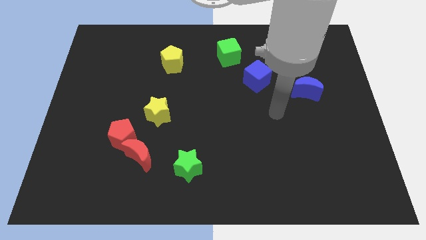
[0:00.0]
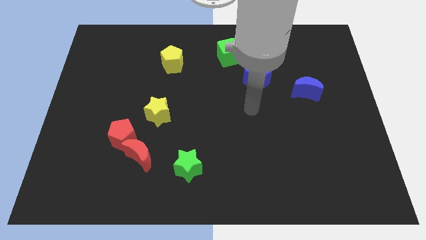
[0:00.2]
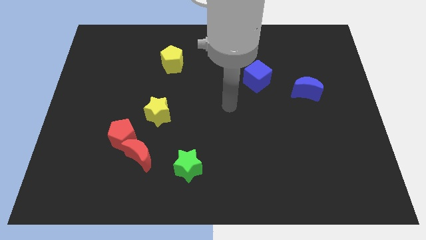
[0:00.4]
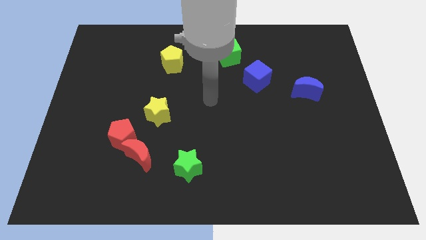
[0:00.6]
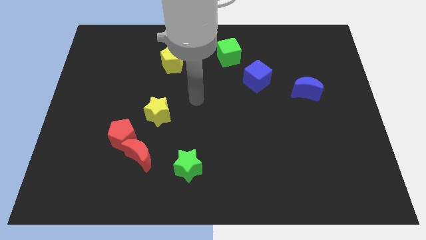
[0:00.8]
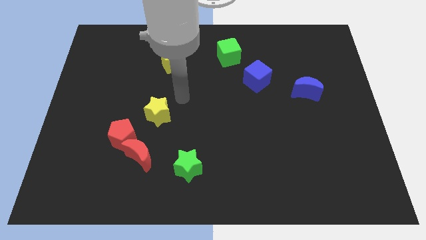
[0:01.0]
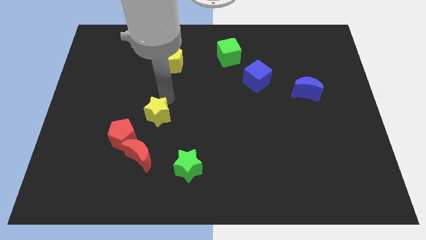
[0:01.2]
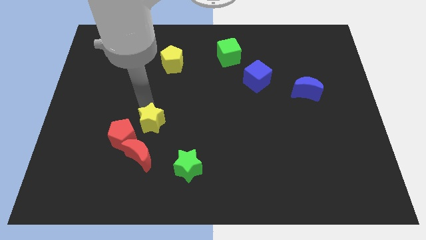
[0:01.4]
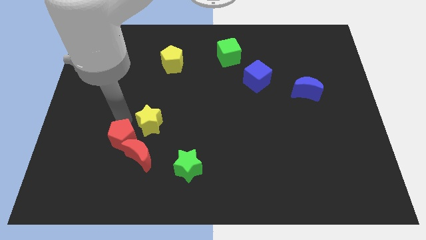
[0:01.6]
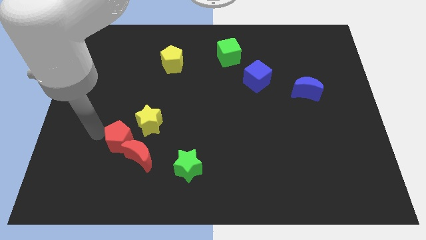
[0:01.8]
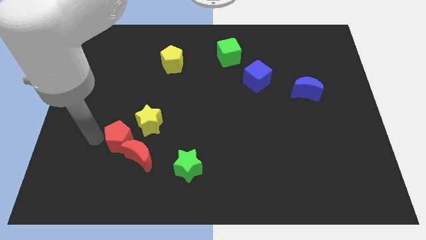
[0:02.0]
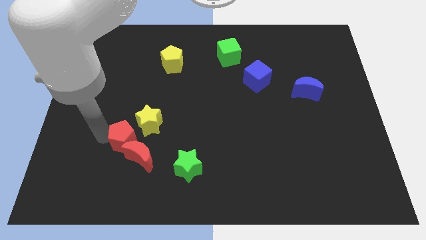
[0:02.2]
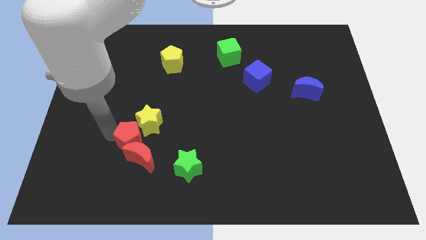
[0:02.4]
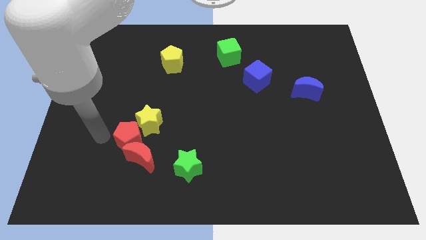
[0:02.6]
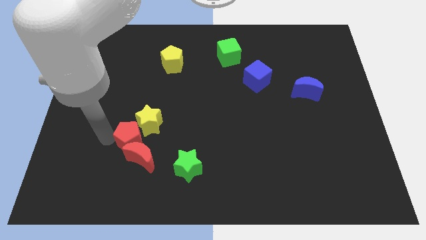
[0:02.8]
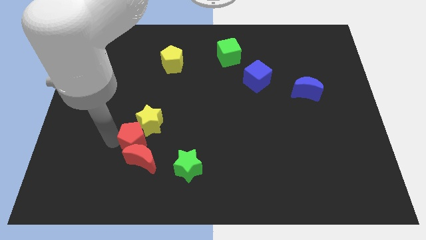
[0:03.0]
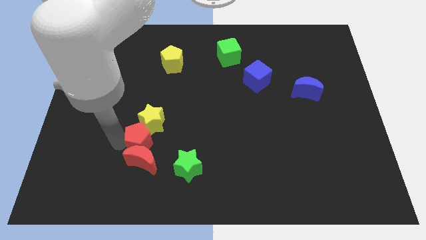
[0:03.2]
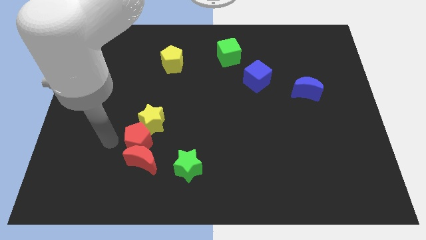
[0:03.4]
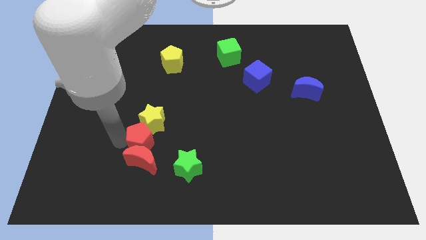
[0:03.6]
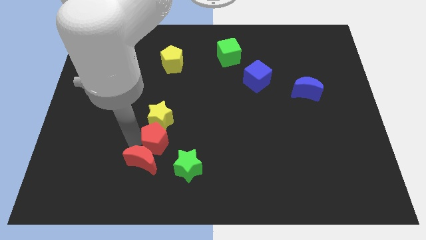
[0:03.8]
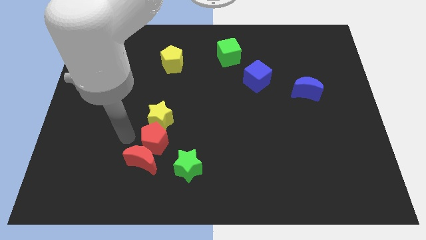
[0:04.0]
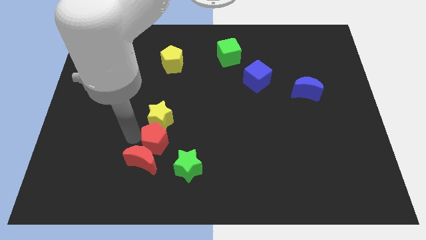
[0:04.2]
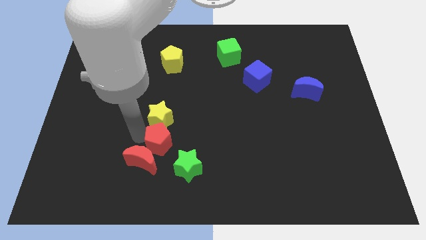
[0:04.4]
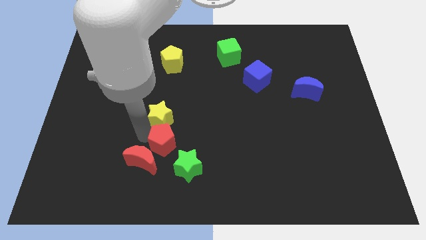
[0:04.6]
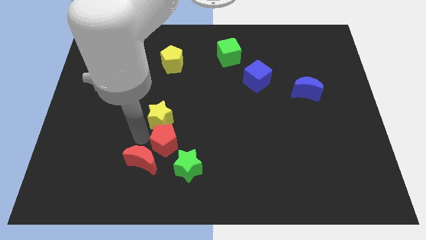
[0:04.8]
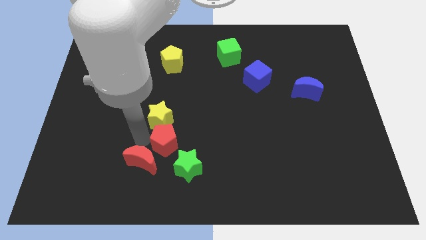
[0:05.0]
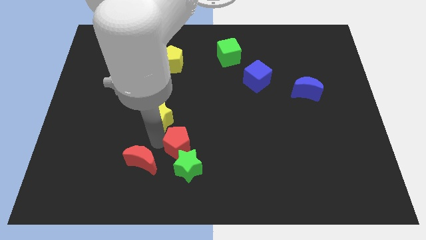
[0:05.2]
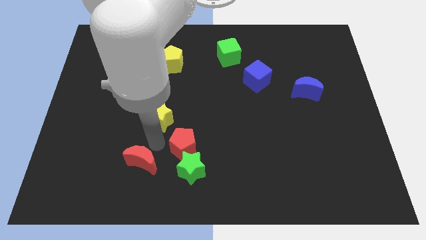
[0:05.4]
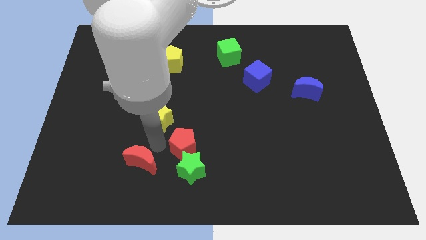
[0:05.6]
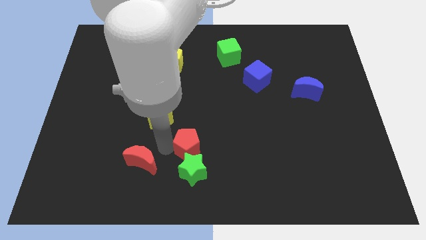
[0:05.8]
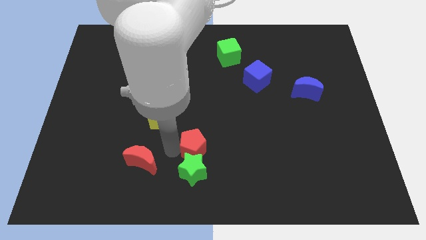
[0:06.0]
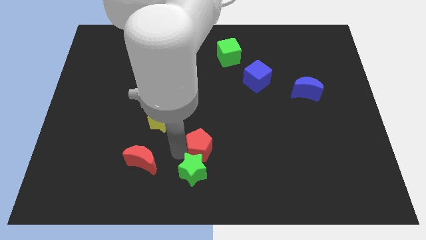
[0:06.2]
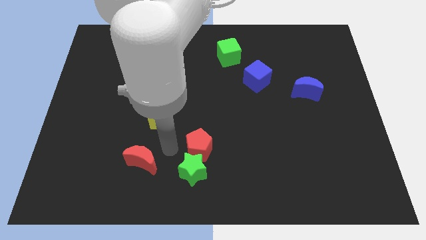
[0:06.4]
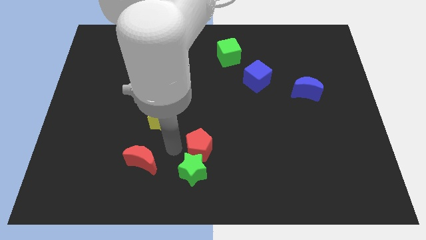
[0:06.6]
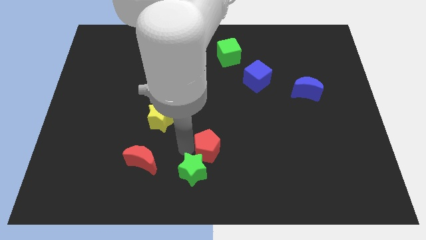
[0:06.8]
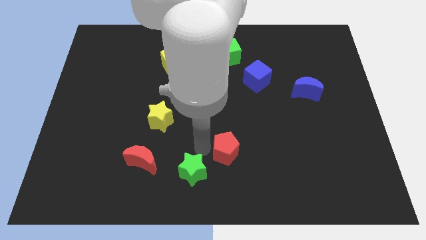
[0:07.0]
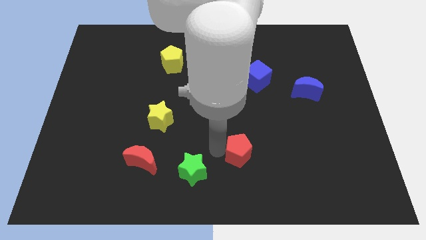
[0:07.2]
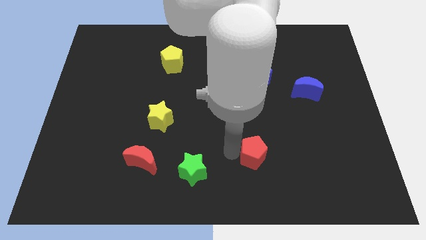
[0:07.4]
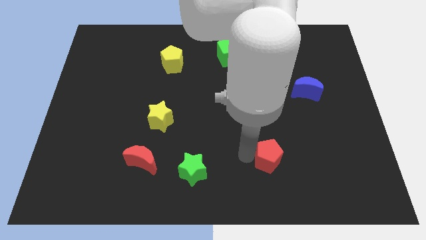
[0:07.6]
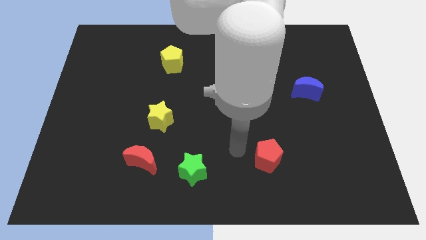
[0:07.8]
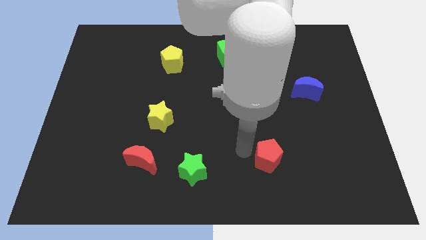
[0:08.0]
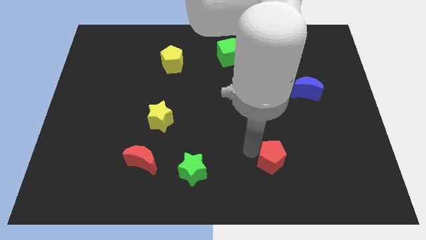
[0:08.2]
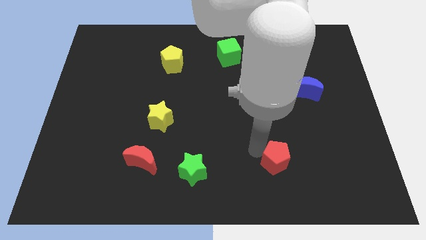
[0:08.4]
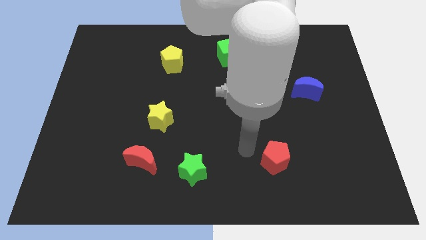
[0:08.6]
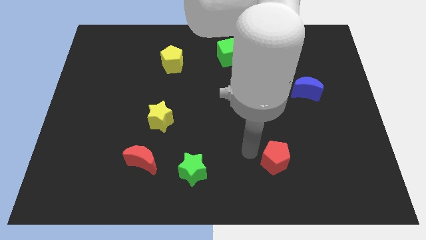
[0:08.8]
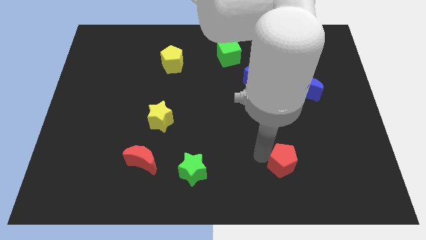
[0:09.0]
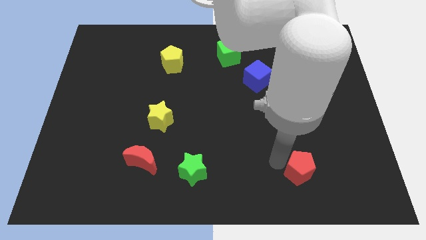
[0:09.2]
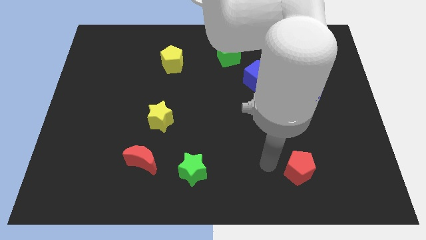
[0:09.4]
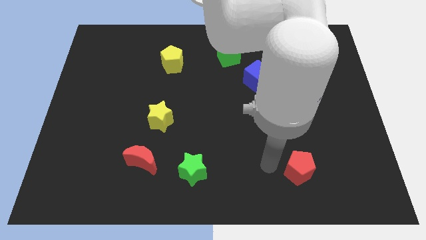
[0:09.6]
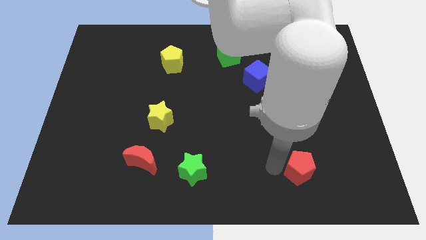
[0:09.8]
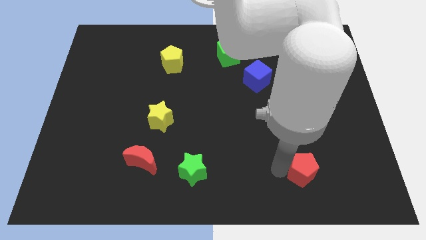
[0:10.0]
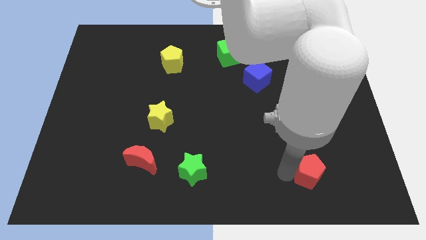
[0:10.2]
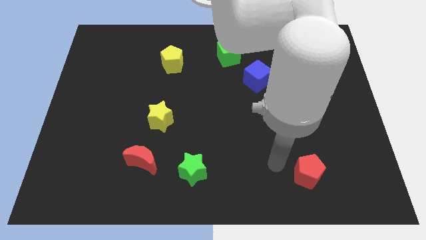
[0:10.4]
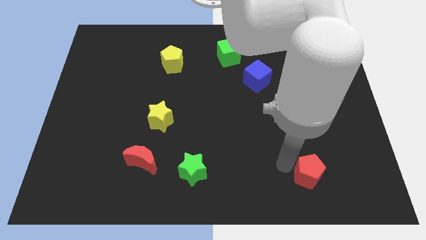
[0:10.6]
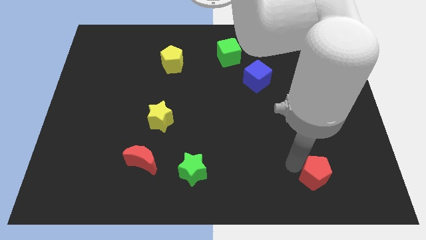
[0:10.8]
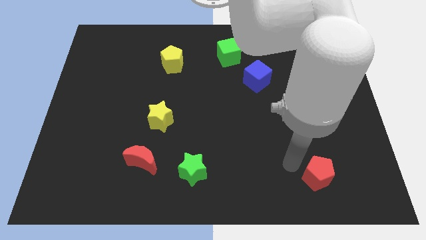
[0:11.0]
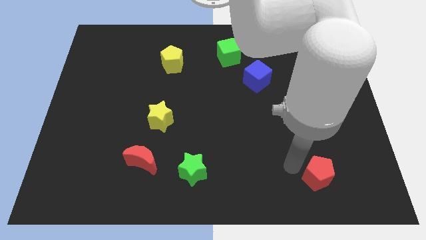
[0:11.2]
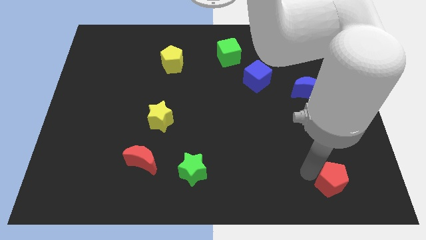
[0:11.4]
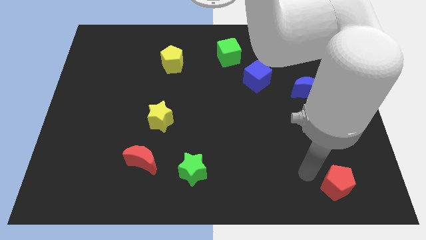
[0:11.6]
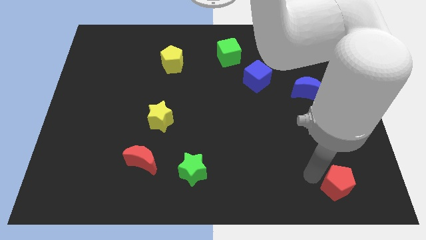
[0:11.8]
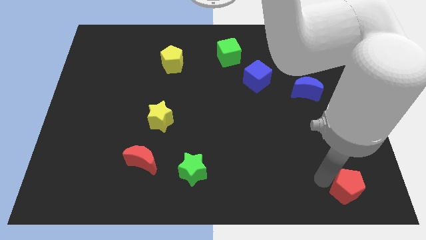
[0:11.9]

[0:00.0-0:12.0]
slide the red pentagon to the bottom right

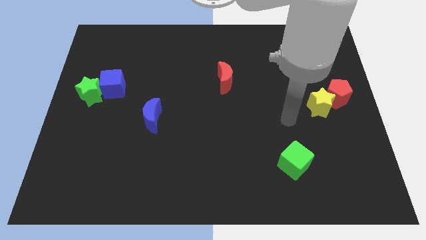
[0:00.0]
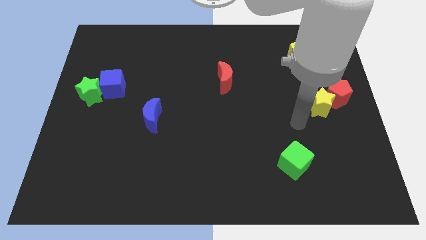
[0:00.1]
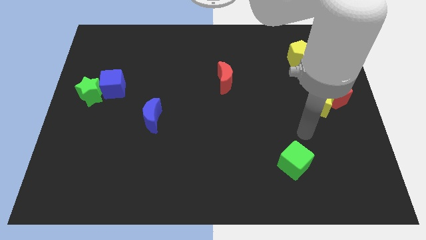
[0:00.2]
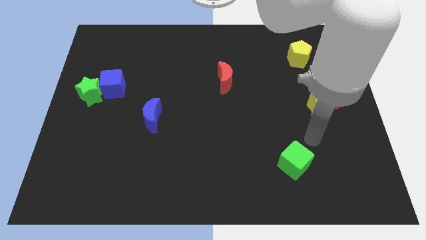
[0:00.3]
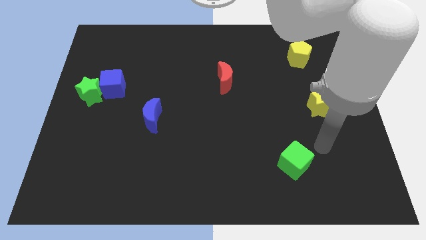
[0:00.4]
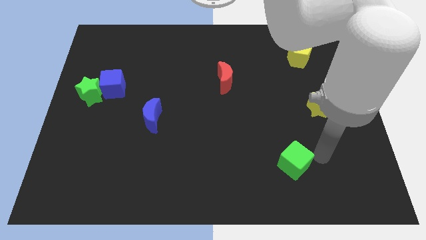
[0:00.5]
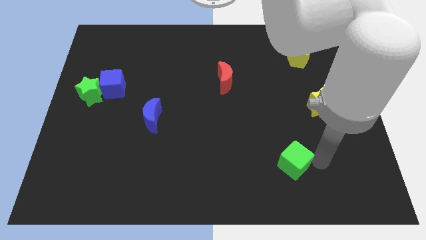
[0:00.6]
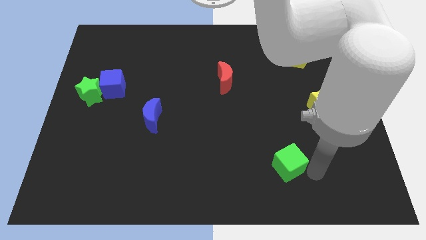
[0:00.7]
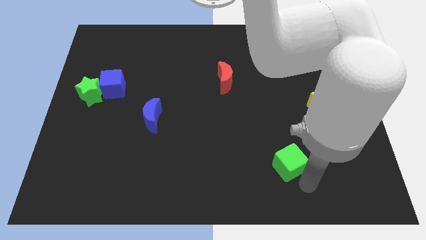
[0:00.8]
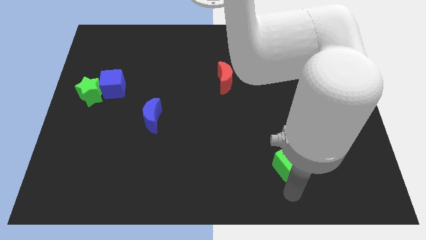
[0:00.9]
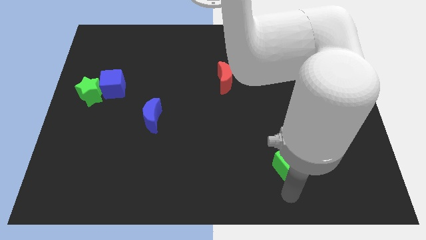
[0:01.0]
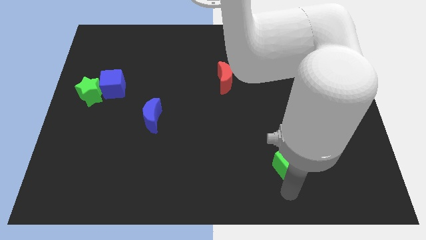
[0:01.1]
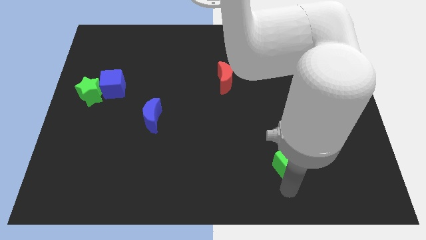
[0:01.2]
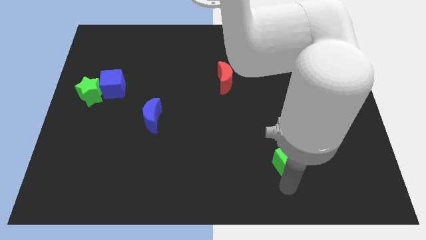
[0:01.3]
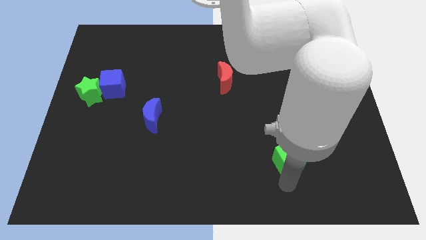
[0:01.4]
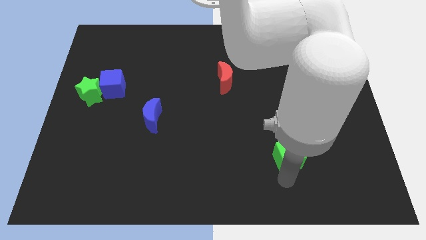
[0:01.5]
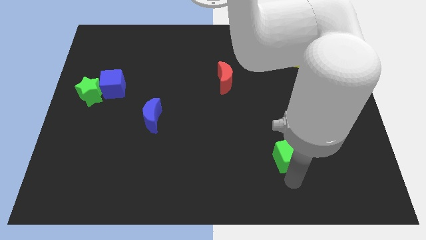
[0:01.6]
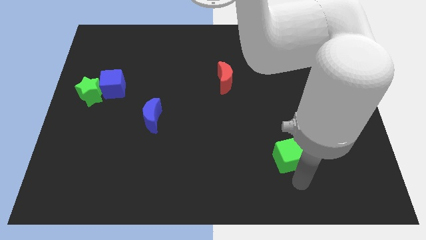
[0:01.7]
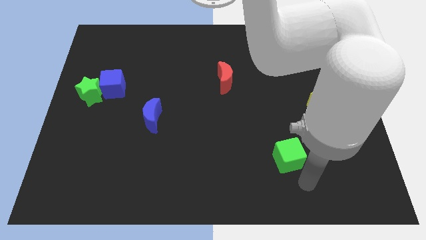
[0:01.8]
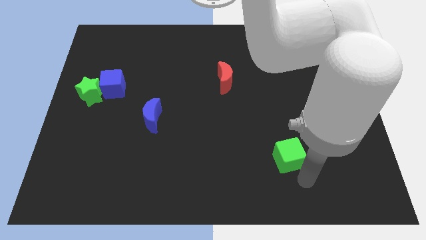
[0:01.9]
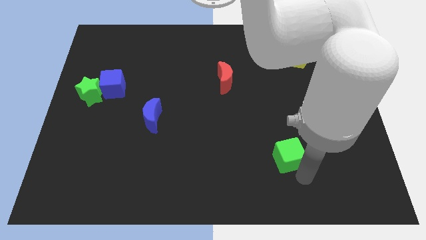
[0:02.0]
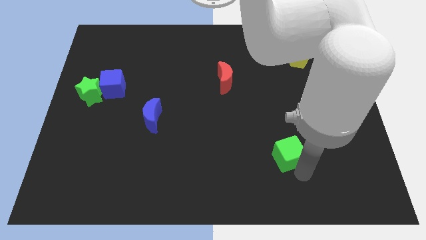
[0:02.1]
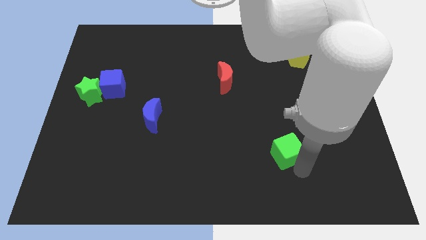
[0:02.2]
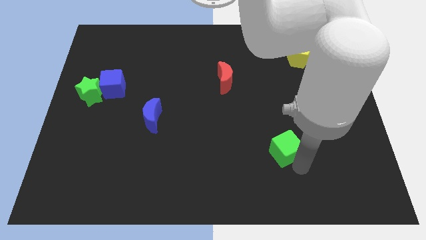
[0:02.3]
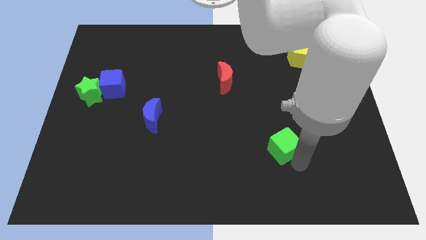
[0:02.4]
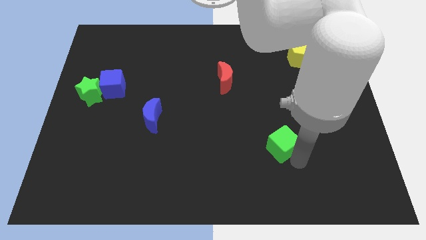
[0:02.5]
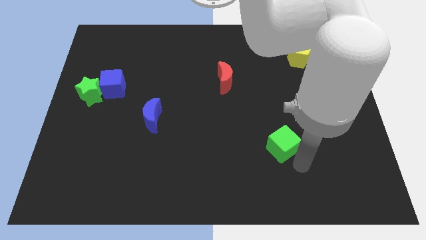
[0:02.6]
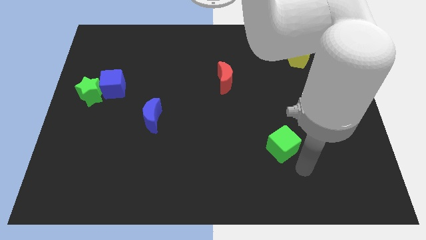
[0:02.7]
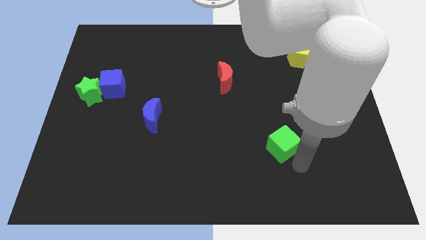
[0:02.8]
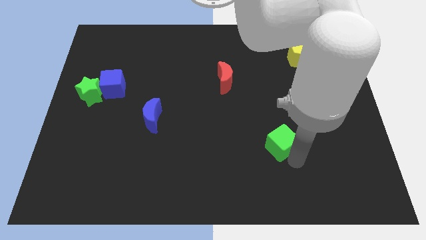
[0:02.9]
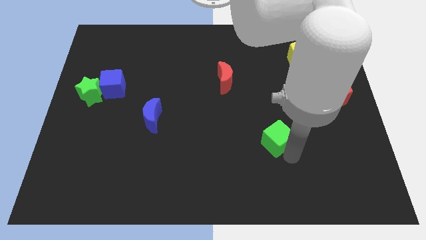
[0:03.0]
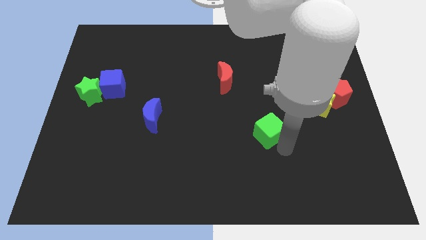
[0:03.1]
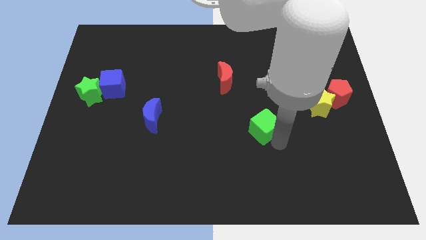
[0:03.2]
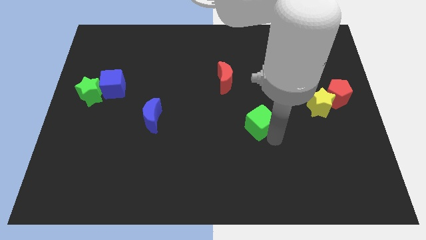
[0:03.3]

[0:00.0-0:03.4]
put the green cube to the middle of the board
